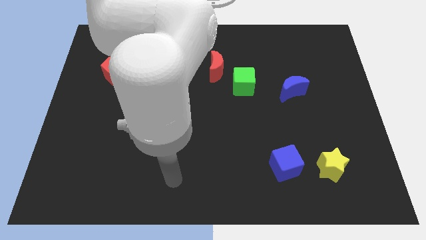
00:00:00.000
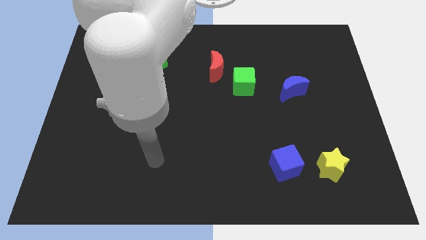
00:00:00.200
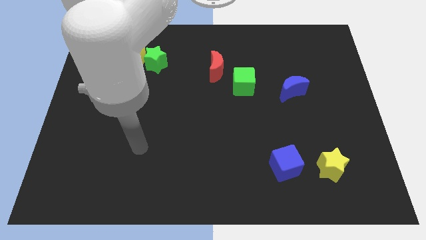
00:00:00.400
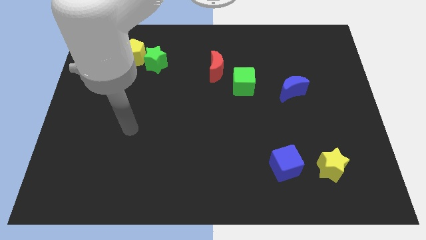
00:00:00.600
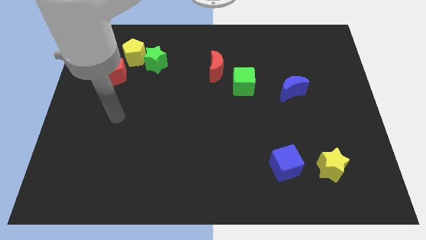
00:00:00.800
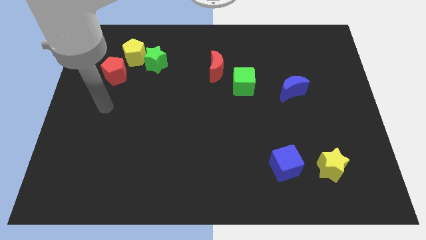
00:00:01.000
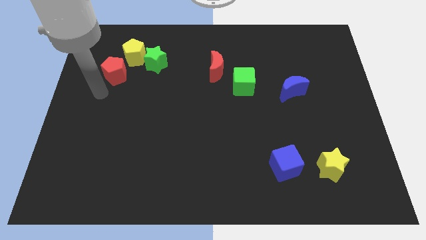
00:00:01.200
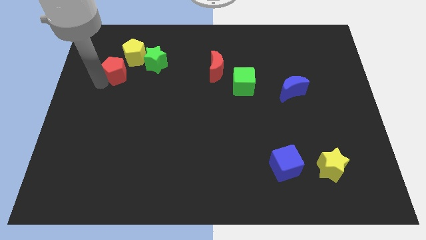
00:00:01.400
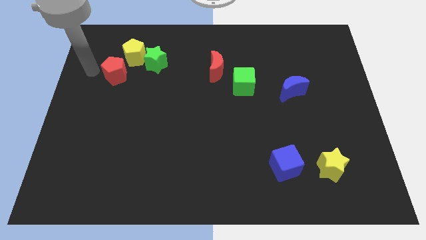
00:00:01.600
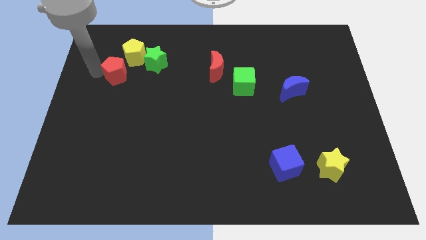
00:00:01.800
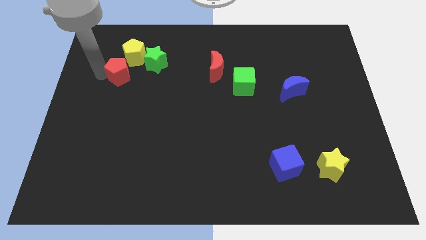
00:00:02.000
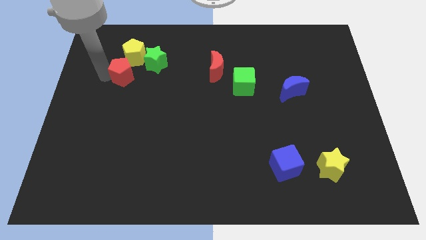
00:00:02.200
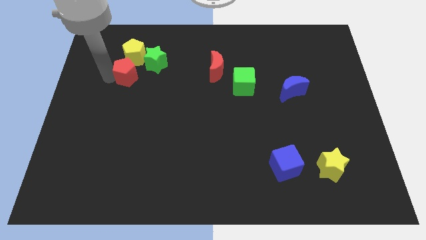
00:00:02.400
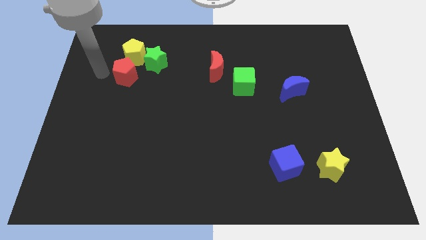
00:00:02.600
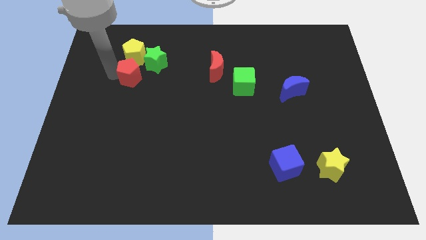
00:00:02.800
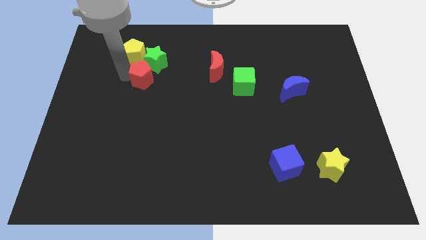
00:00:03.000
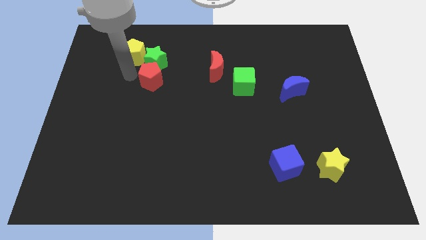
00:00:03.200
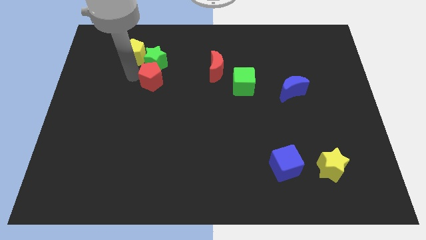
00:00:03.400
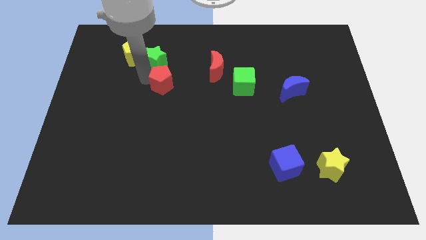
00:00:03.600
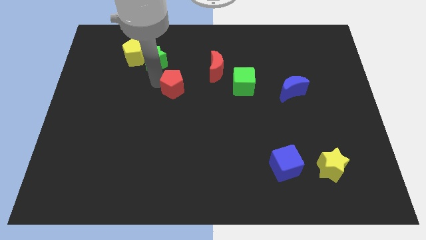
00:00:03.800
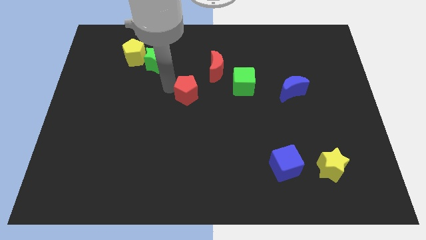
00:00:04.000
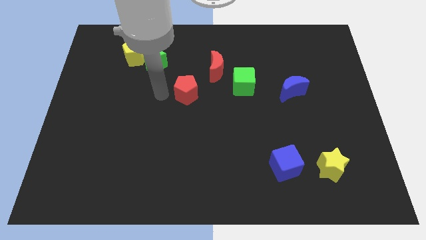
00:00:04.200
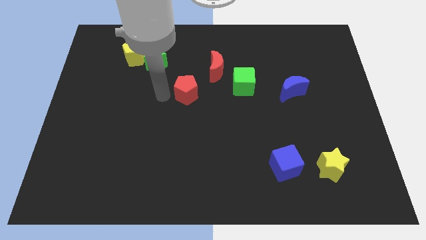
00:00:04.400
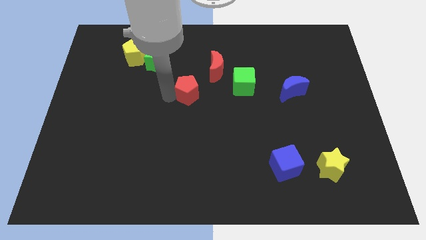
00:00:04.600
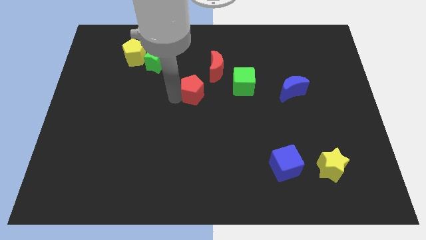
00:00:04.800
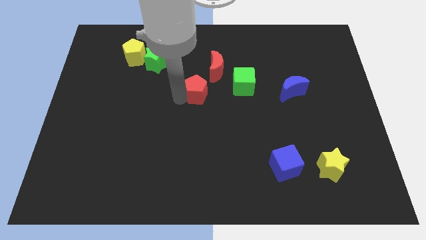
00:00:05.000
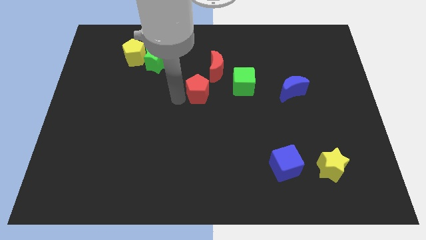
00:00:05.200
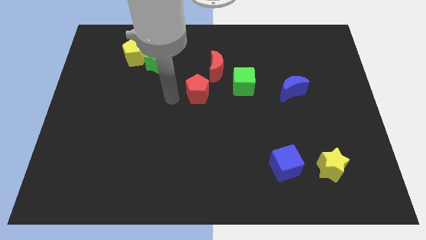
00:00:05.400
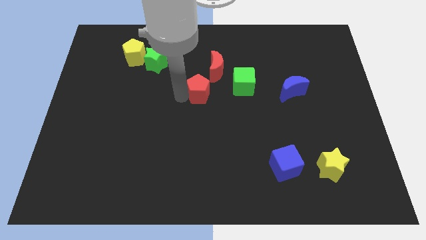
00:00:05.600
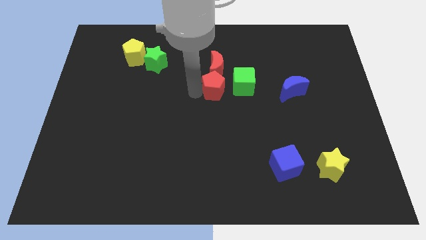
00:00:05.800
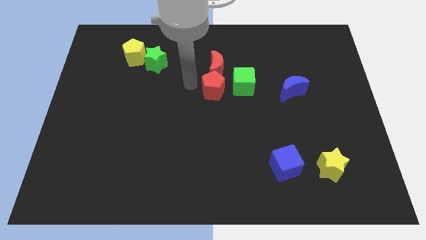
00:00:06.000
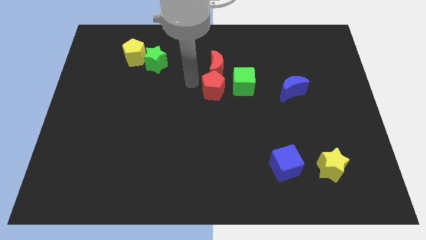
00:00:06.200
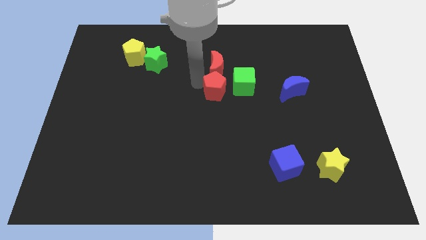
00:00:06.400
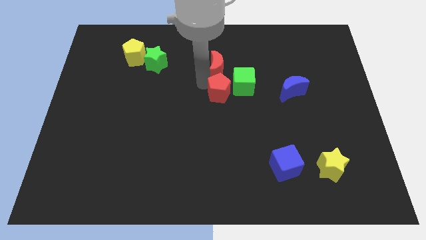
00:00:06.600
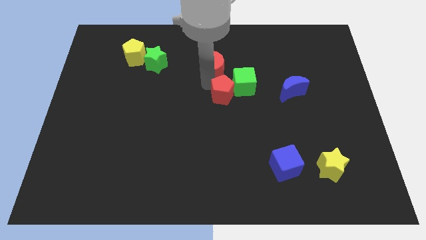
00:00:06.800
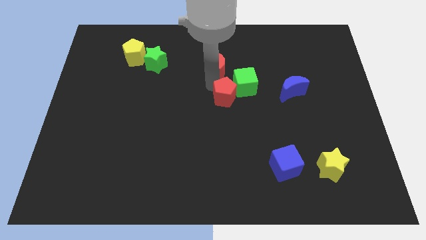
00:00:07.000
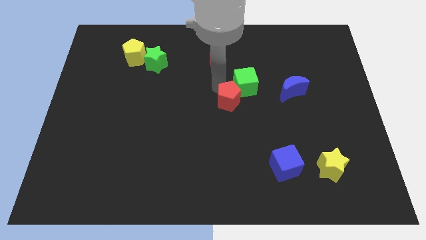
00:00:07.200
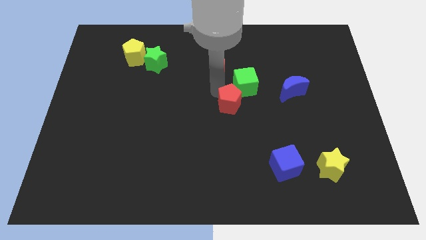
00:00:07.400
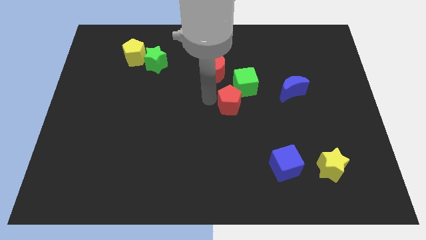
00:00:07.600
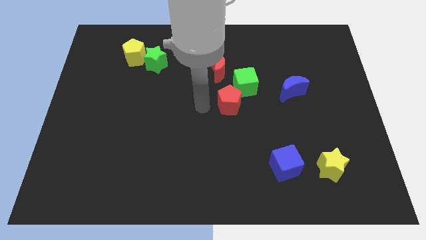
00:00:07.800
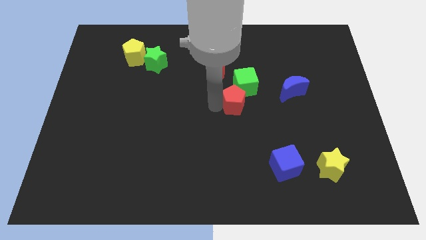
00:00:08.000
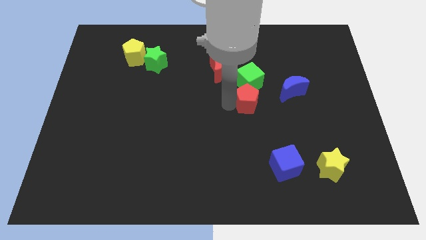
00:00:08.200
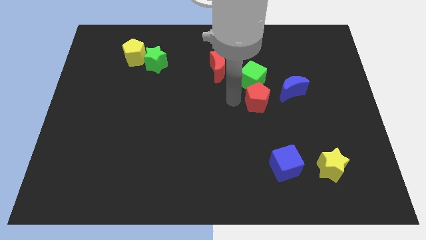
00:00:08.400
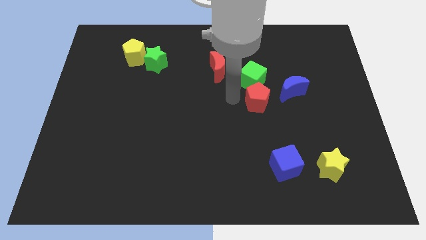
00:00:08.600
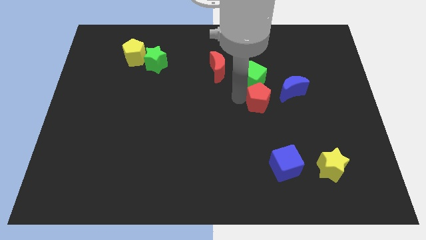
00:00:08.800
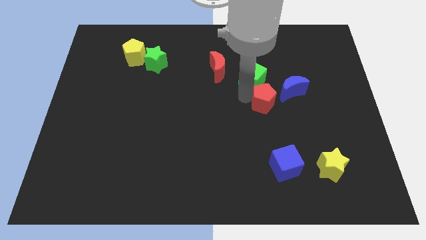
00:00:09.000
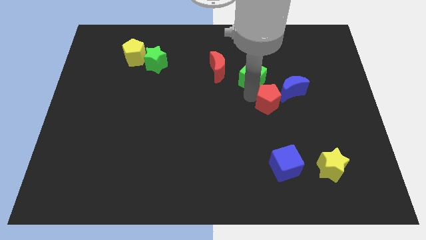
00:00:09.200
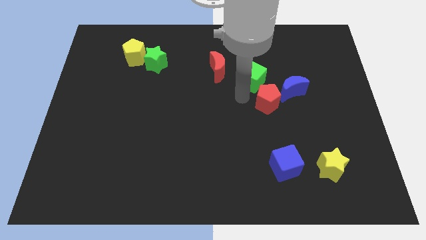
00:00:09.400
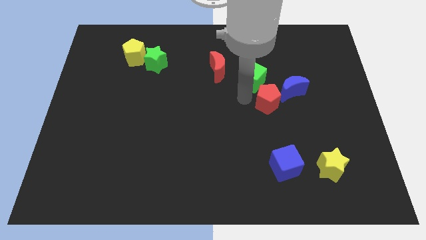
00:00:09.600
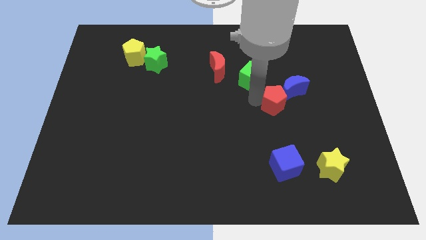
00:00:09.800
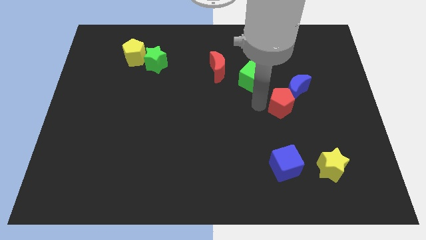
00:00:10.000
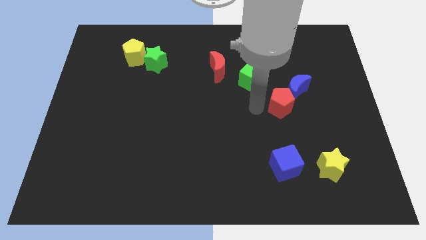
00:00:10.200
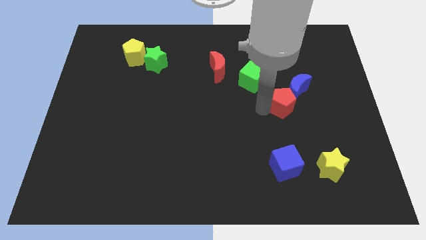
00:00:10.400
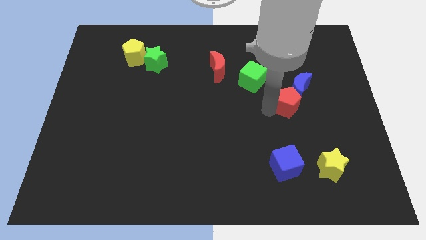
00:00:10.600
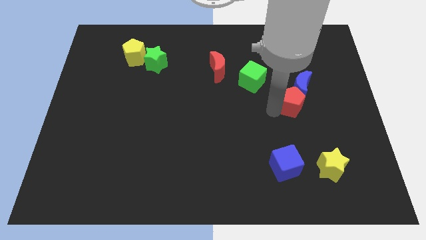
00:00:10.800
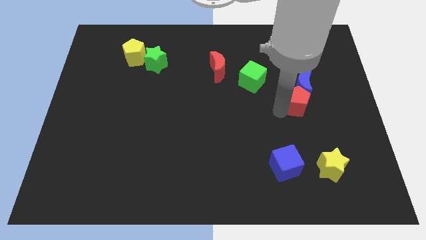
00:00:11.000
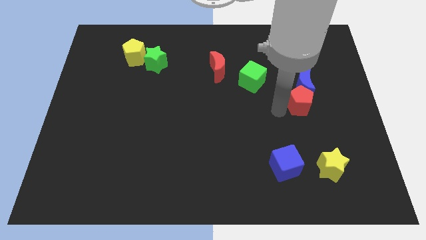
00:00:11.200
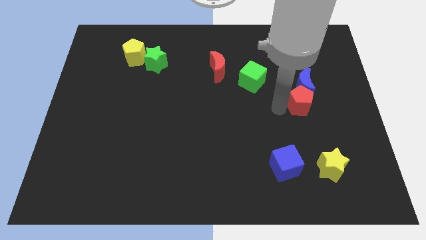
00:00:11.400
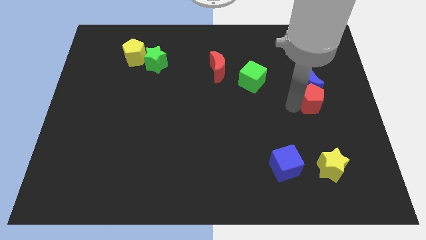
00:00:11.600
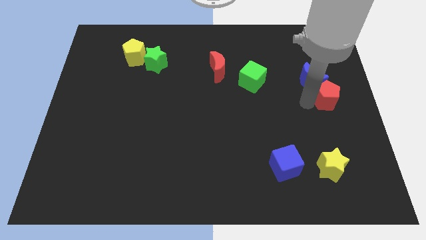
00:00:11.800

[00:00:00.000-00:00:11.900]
put the red pentagon to the right side
